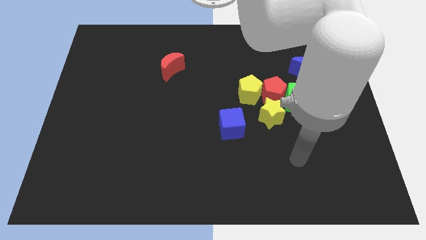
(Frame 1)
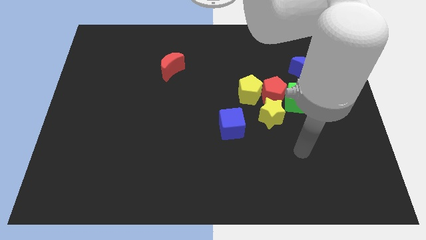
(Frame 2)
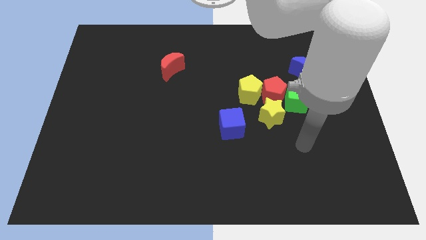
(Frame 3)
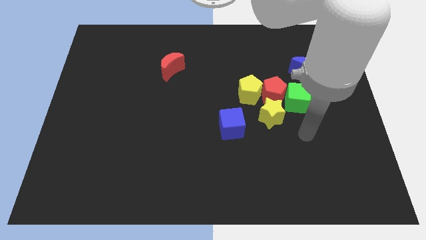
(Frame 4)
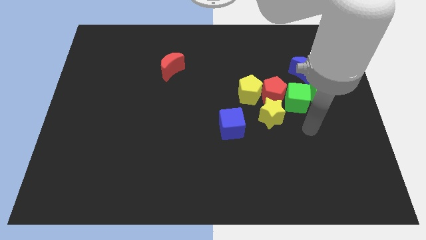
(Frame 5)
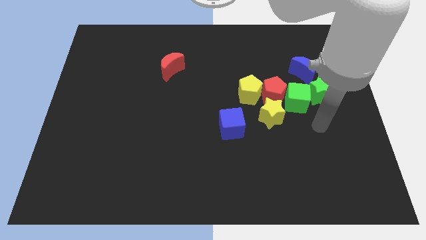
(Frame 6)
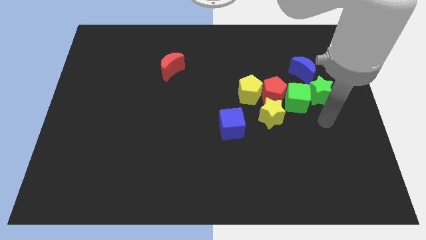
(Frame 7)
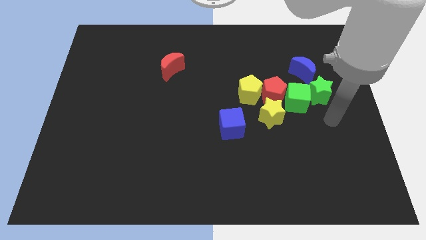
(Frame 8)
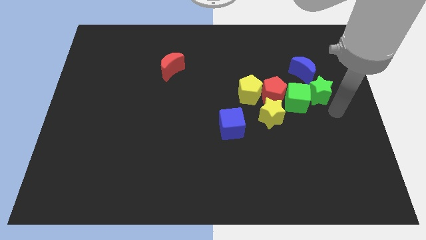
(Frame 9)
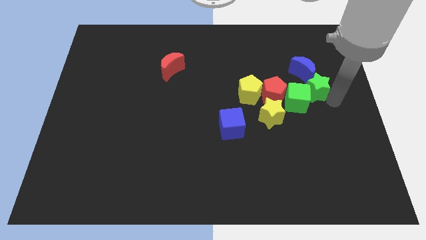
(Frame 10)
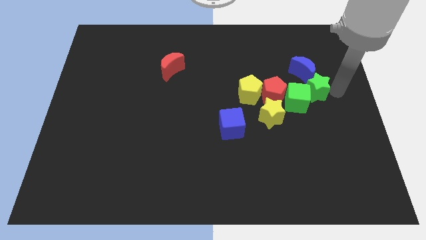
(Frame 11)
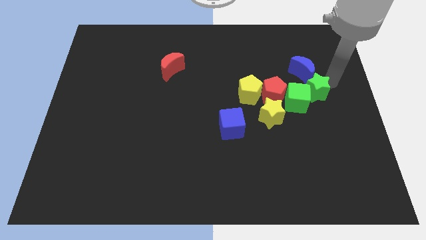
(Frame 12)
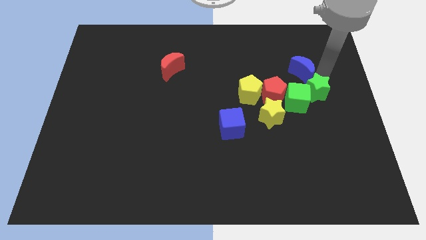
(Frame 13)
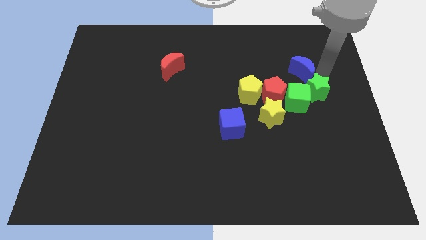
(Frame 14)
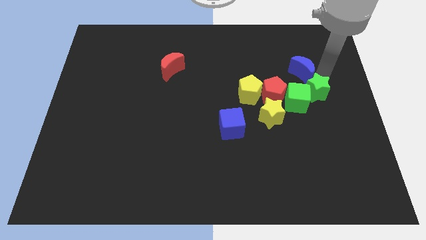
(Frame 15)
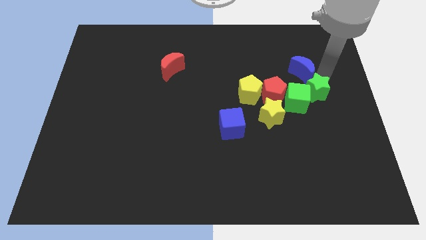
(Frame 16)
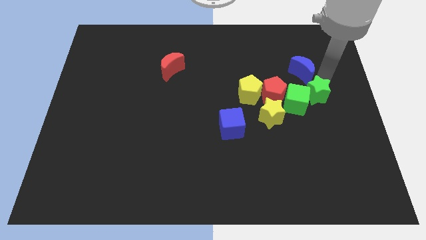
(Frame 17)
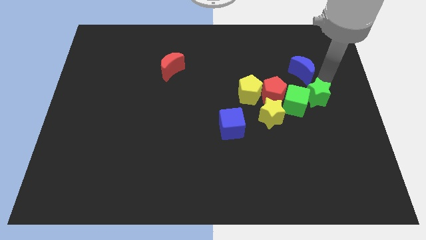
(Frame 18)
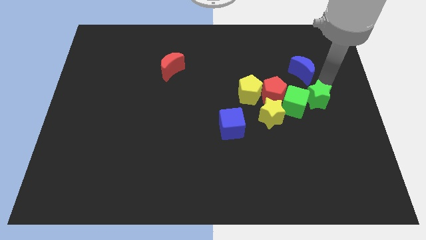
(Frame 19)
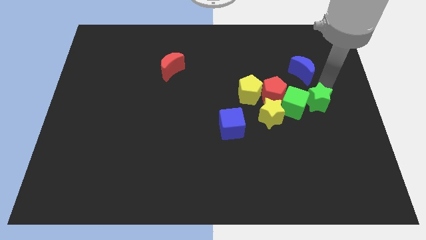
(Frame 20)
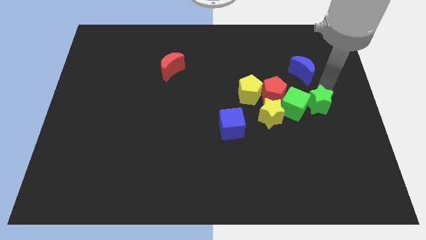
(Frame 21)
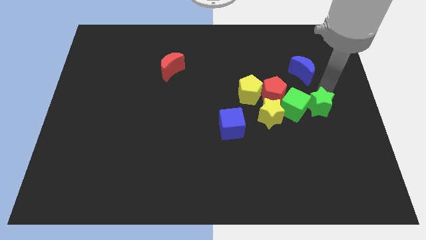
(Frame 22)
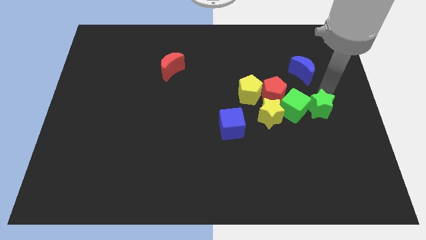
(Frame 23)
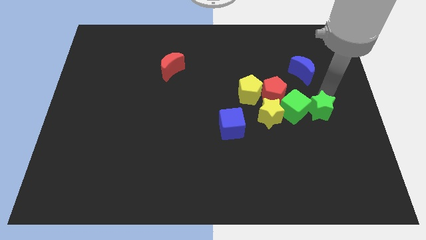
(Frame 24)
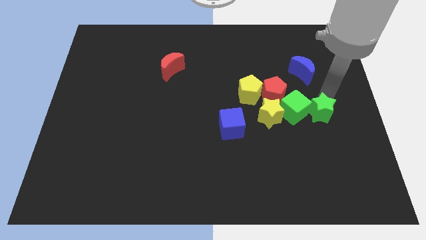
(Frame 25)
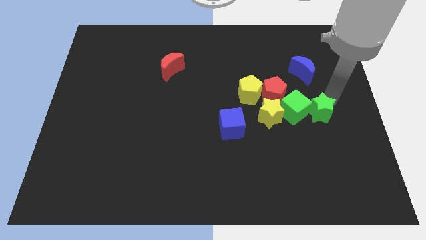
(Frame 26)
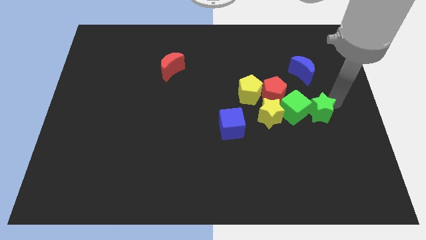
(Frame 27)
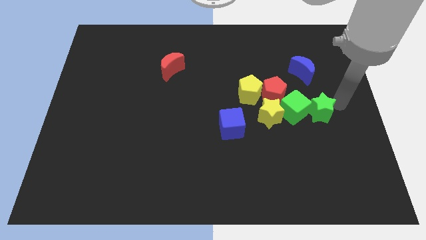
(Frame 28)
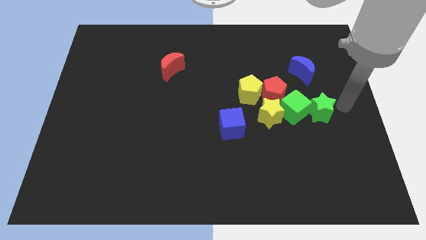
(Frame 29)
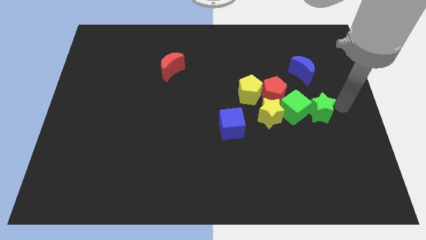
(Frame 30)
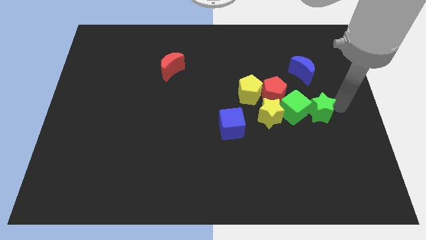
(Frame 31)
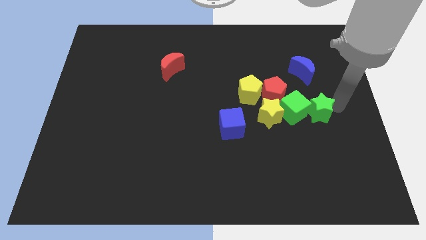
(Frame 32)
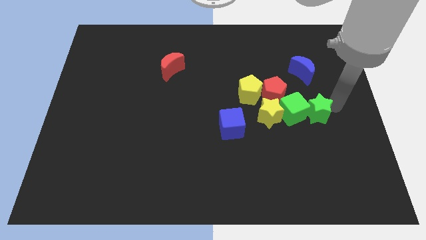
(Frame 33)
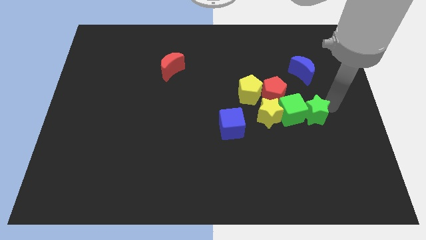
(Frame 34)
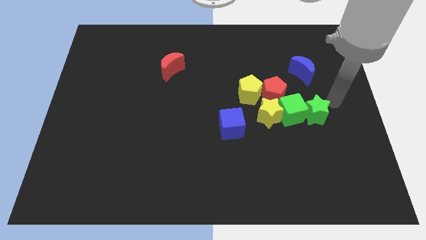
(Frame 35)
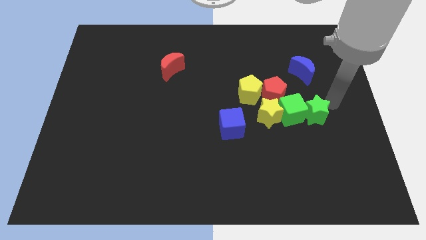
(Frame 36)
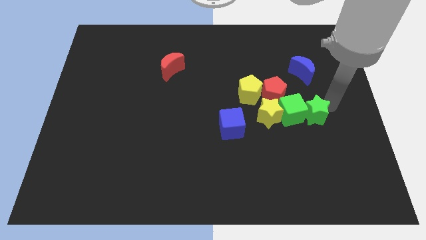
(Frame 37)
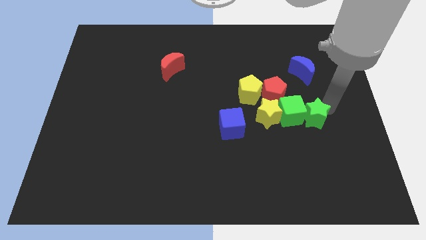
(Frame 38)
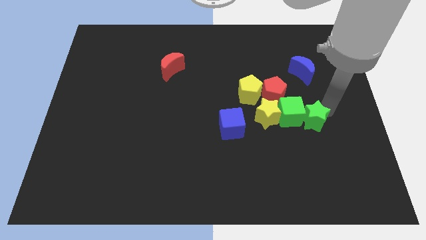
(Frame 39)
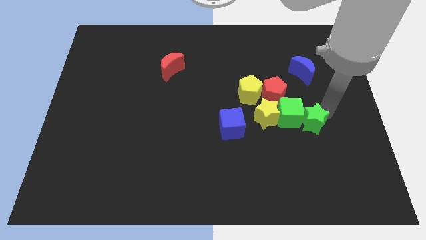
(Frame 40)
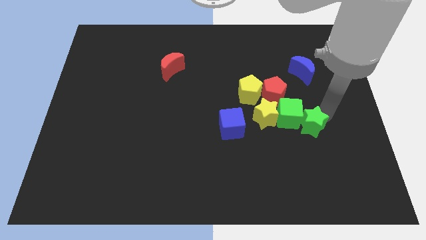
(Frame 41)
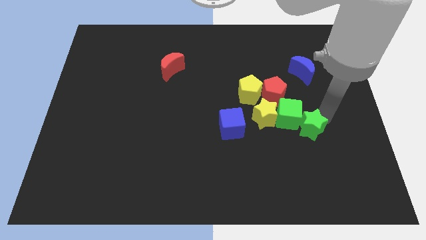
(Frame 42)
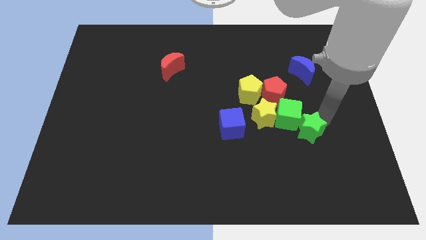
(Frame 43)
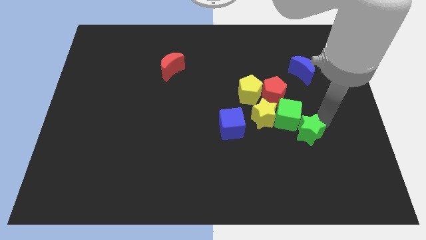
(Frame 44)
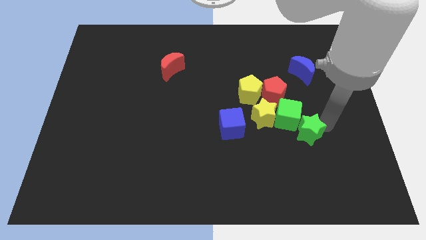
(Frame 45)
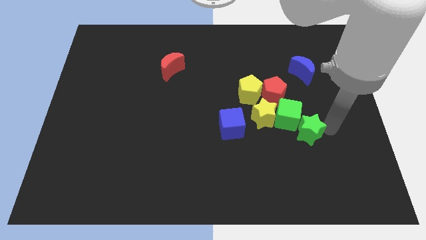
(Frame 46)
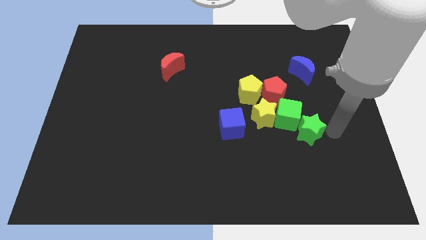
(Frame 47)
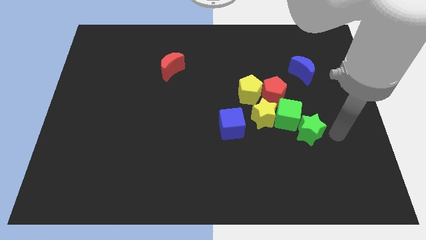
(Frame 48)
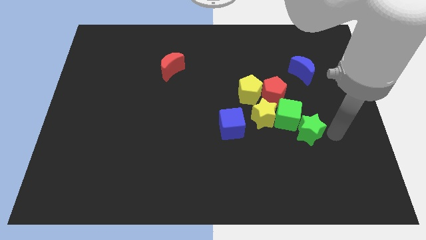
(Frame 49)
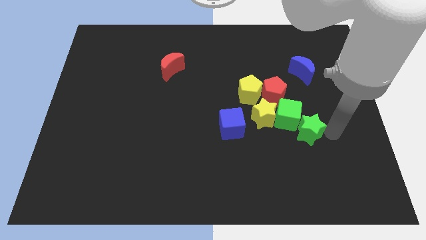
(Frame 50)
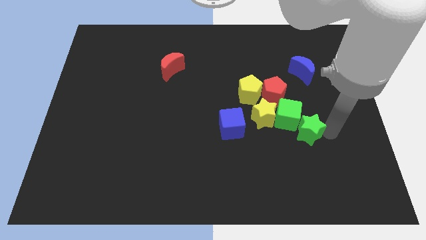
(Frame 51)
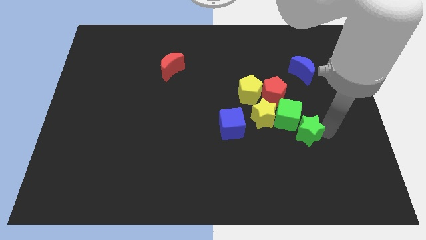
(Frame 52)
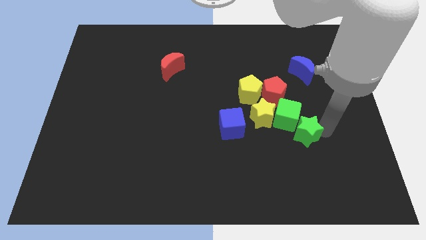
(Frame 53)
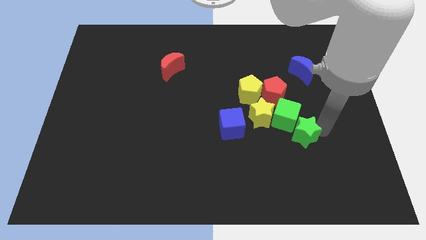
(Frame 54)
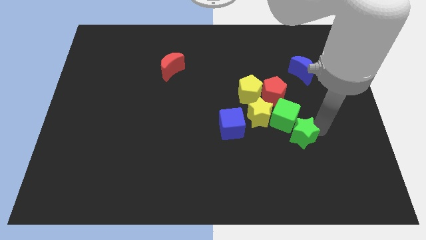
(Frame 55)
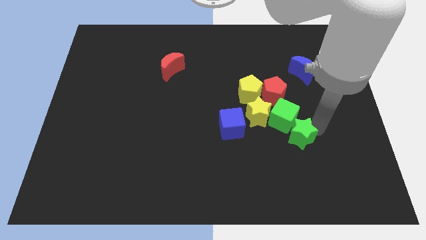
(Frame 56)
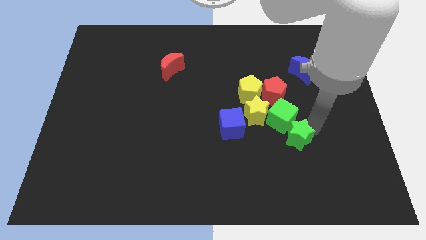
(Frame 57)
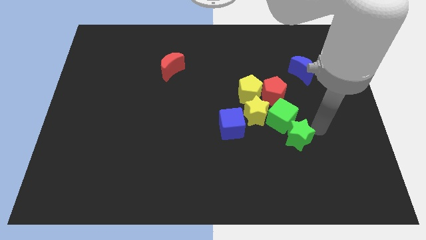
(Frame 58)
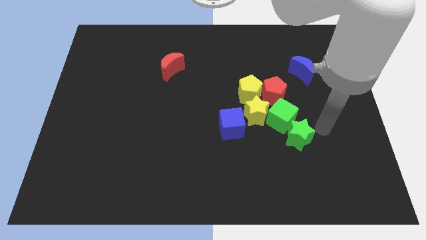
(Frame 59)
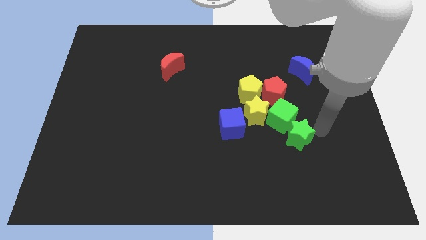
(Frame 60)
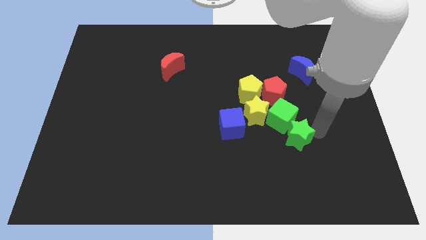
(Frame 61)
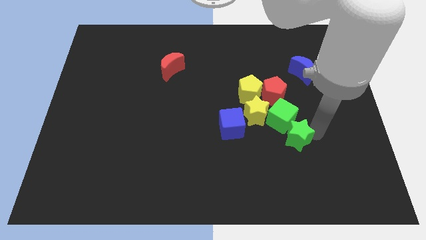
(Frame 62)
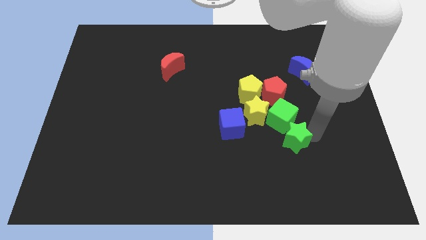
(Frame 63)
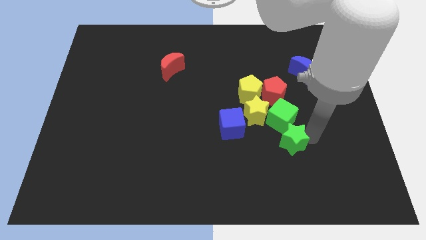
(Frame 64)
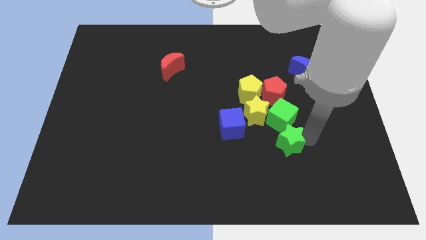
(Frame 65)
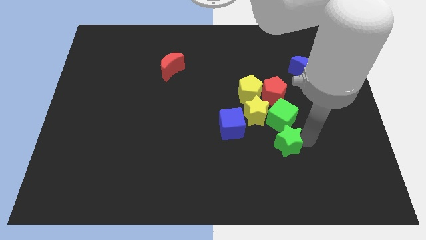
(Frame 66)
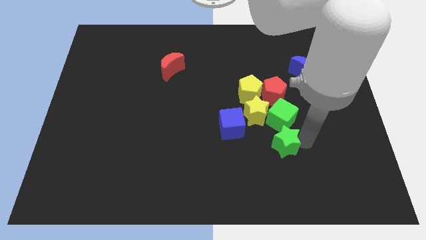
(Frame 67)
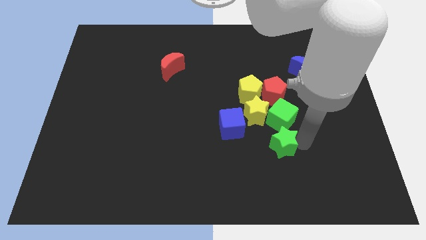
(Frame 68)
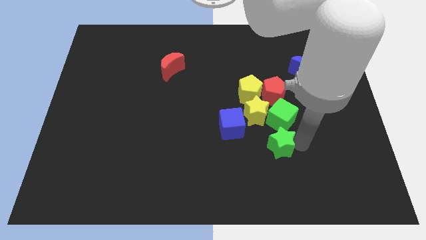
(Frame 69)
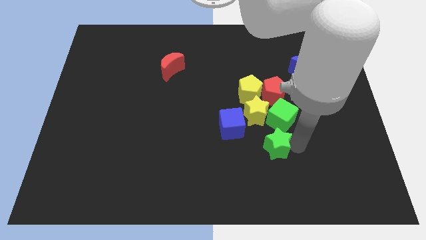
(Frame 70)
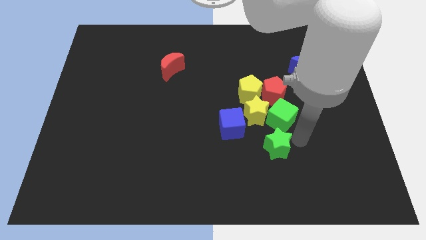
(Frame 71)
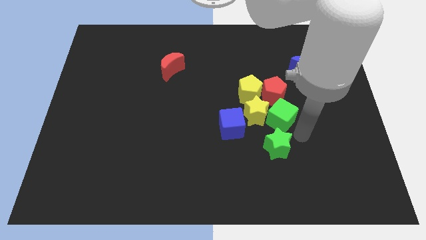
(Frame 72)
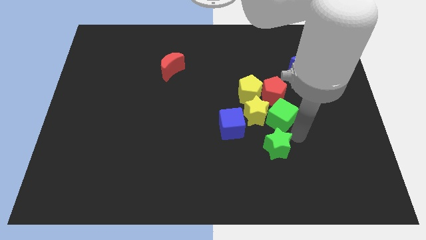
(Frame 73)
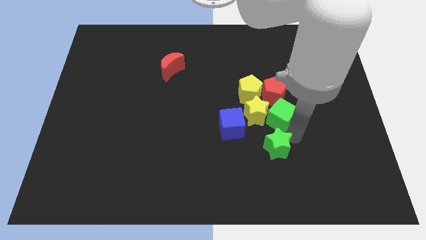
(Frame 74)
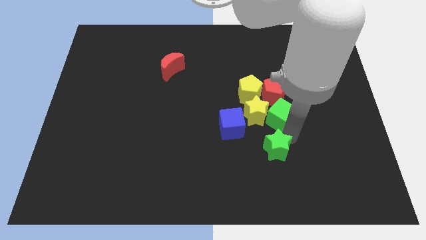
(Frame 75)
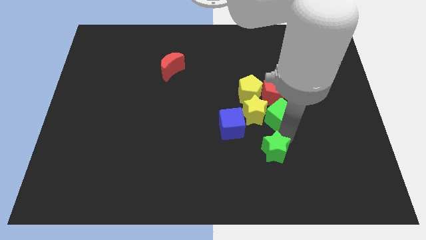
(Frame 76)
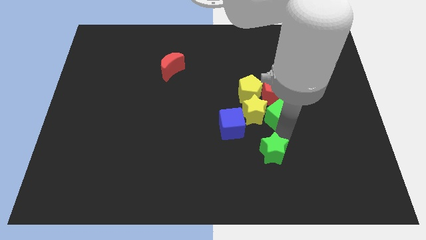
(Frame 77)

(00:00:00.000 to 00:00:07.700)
push the green star down and to the left
